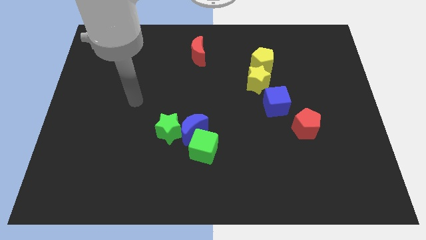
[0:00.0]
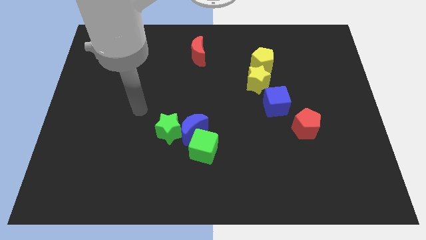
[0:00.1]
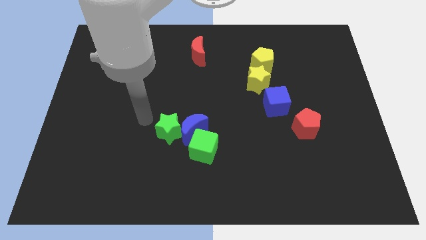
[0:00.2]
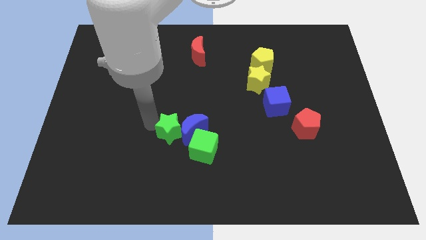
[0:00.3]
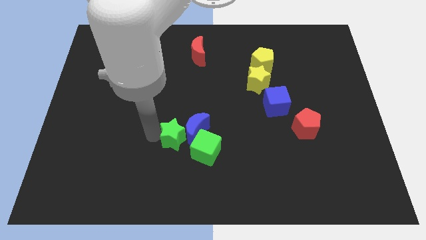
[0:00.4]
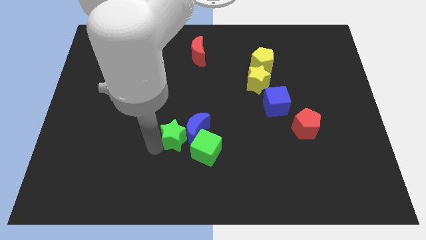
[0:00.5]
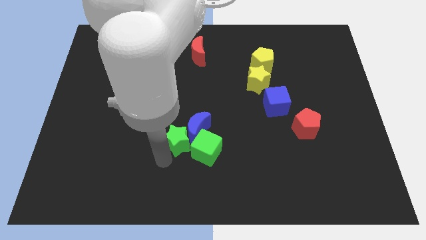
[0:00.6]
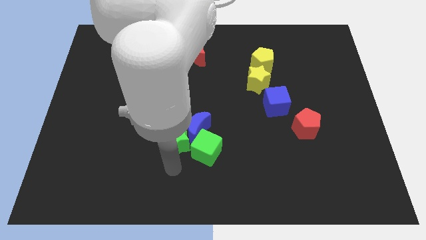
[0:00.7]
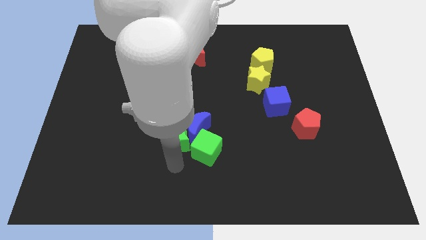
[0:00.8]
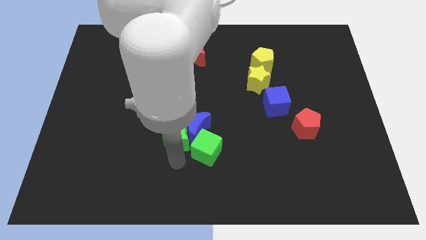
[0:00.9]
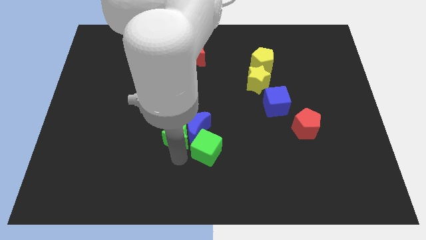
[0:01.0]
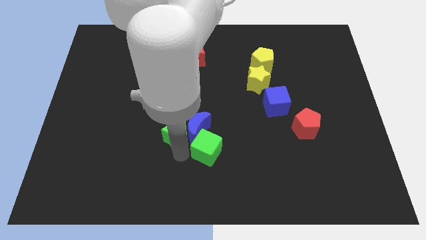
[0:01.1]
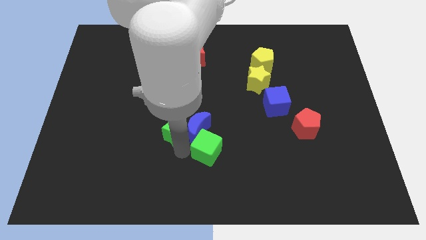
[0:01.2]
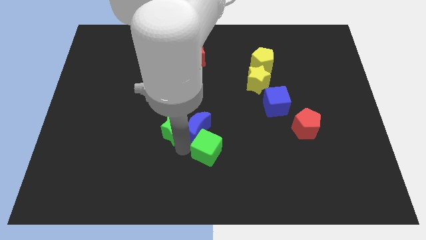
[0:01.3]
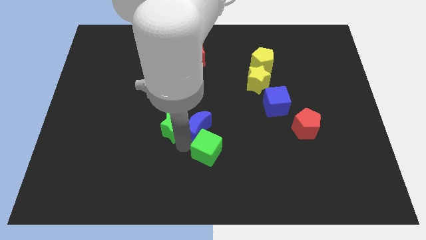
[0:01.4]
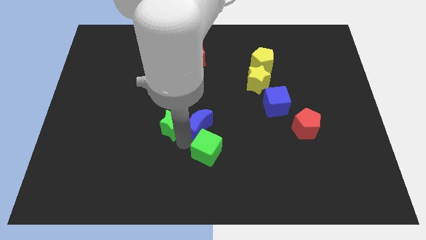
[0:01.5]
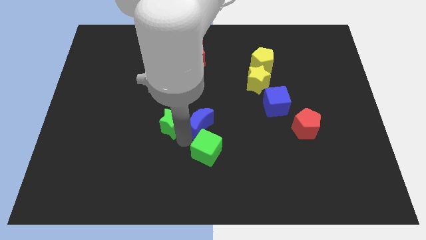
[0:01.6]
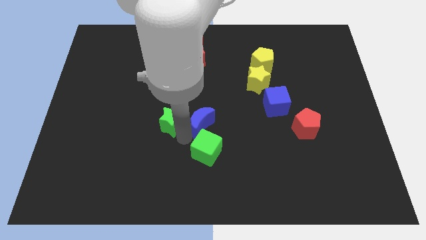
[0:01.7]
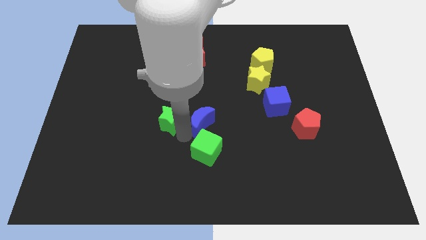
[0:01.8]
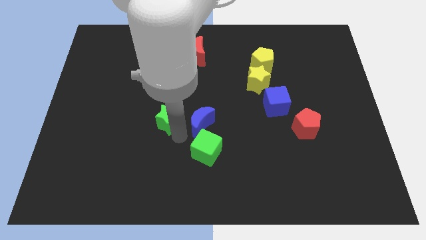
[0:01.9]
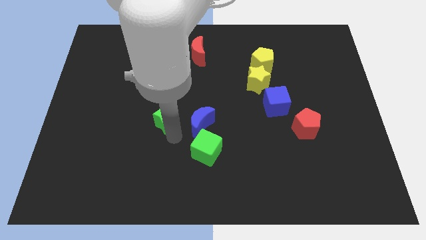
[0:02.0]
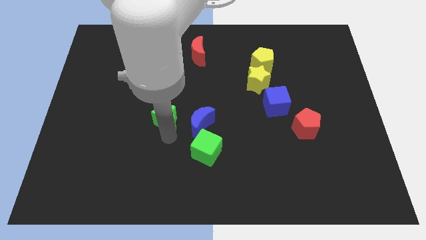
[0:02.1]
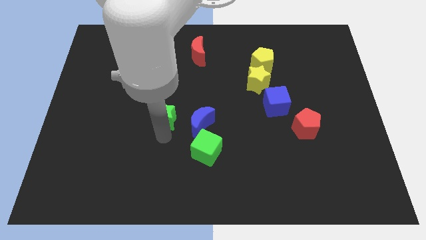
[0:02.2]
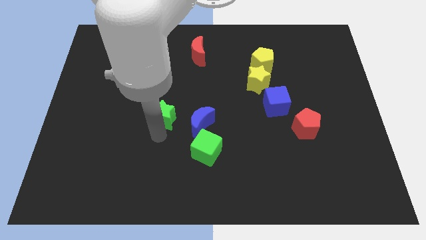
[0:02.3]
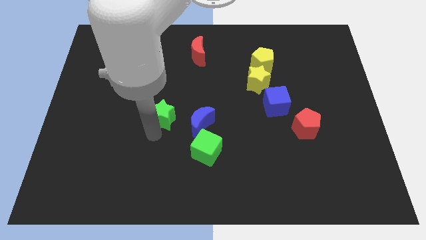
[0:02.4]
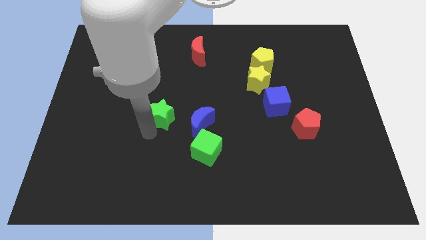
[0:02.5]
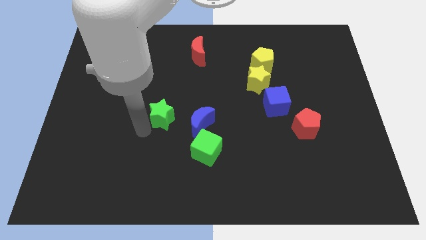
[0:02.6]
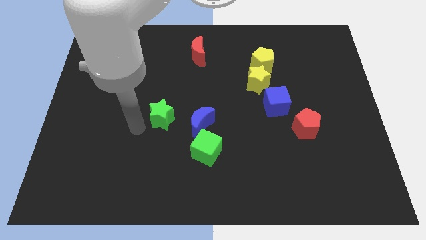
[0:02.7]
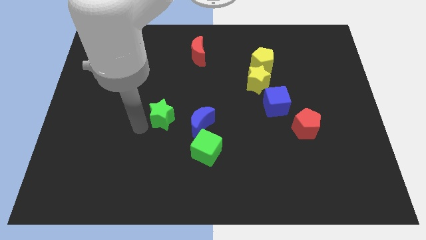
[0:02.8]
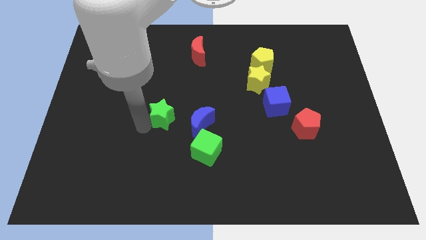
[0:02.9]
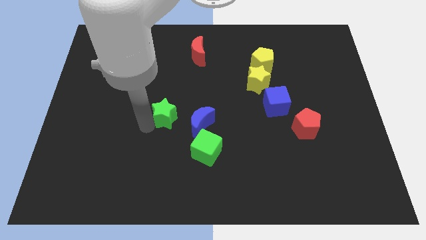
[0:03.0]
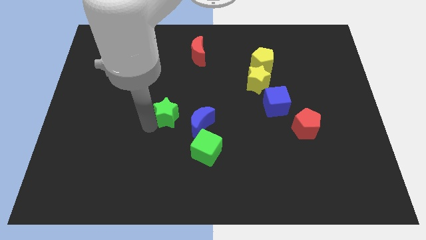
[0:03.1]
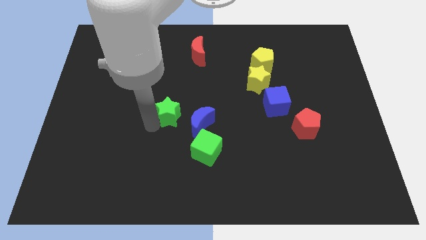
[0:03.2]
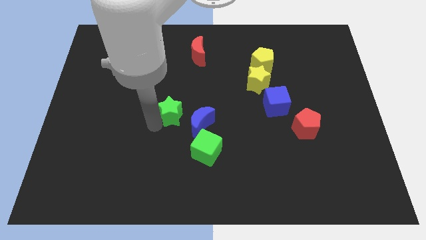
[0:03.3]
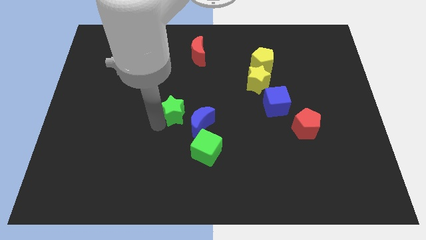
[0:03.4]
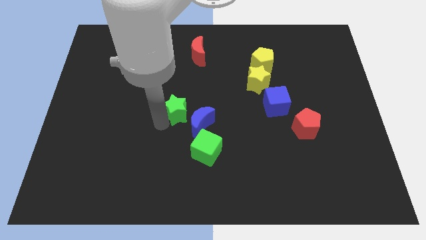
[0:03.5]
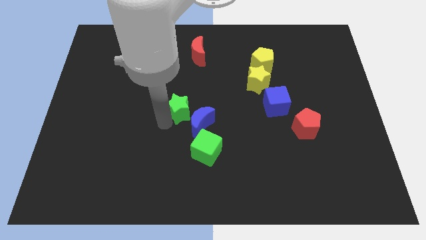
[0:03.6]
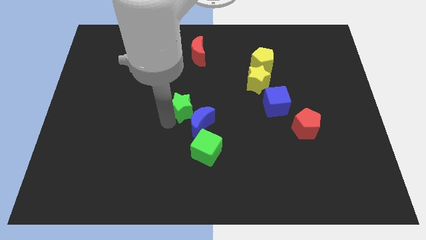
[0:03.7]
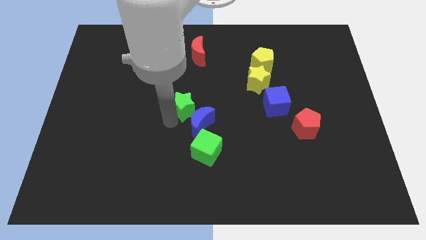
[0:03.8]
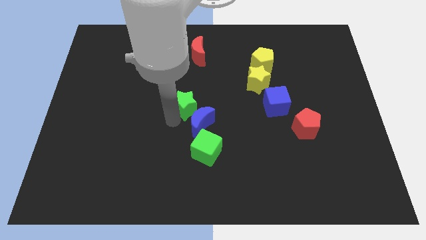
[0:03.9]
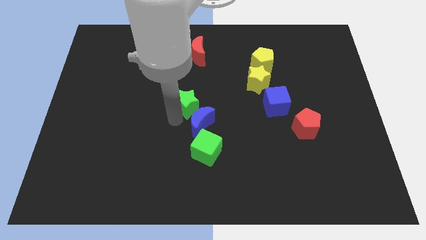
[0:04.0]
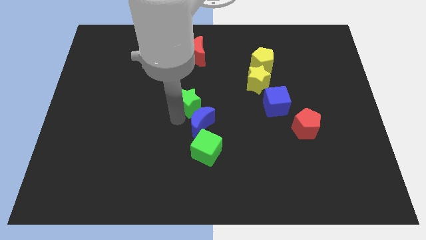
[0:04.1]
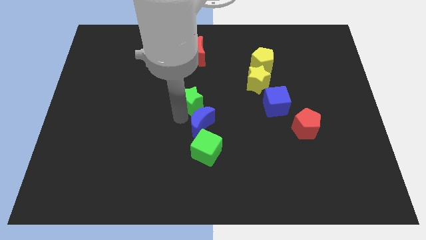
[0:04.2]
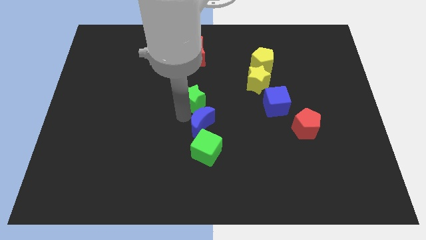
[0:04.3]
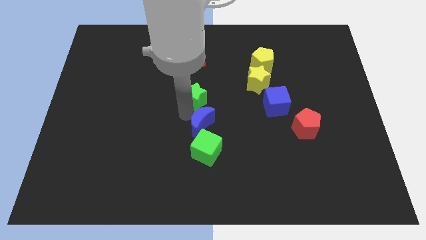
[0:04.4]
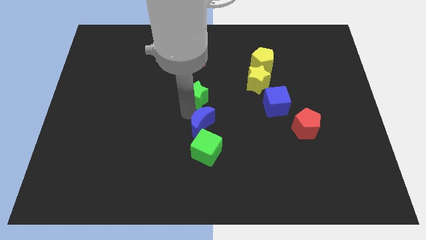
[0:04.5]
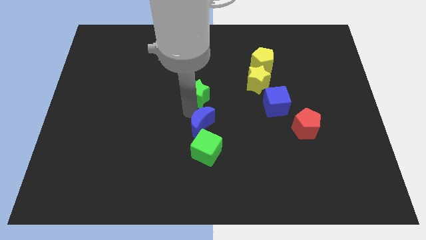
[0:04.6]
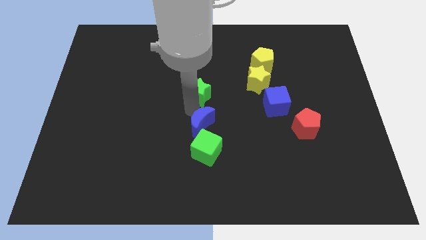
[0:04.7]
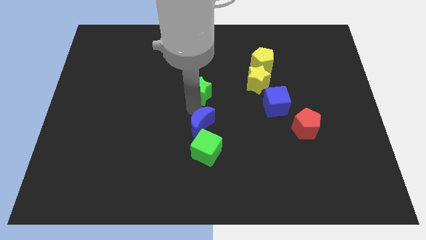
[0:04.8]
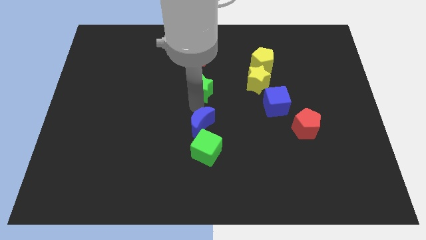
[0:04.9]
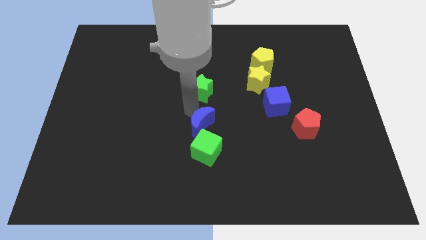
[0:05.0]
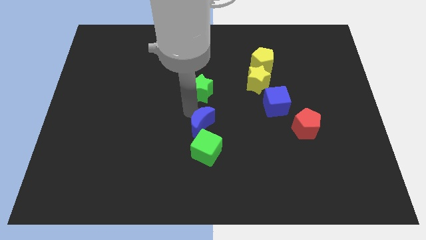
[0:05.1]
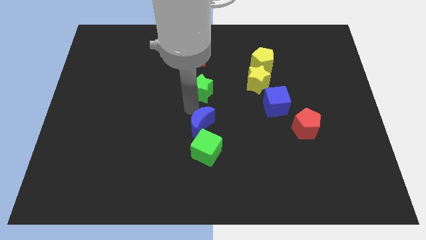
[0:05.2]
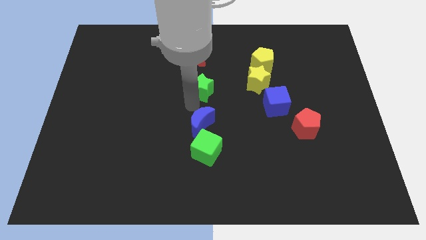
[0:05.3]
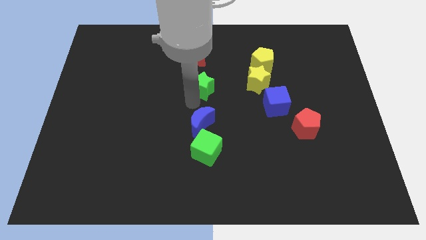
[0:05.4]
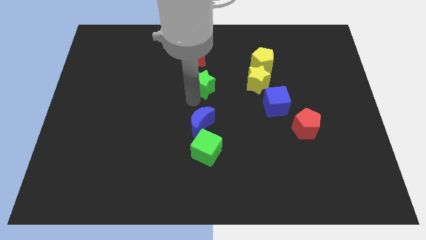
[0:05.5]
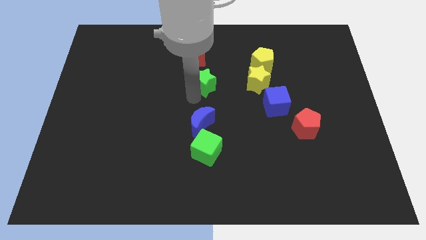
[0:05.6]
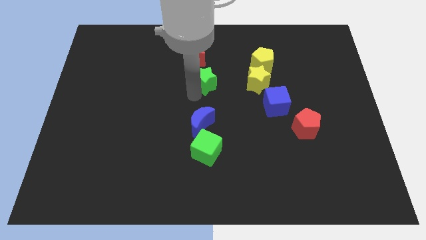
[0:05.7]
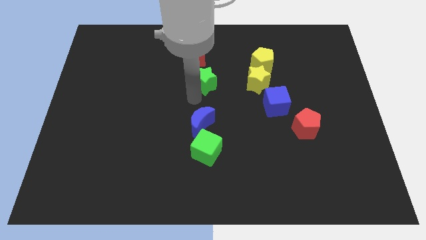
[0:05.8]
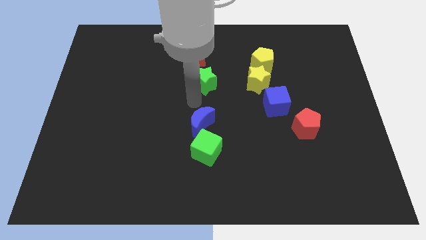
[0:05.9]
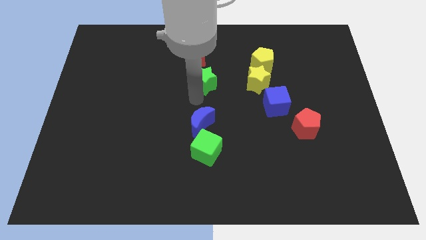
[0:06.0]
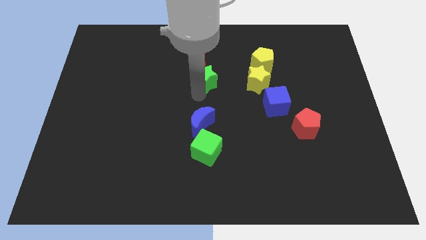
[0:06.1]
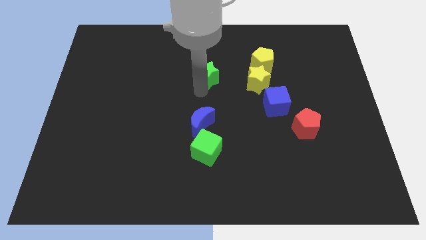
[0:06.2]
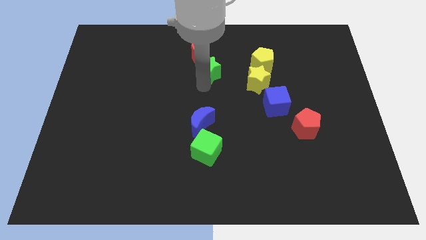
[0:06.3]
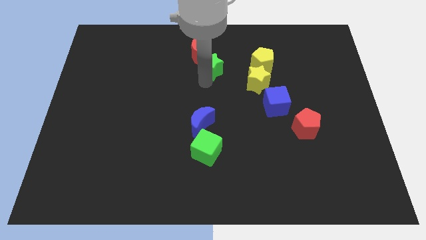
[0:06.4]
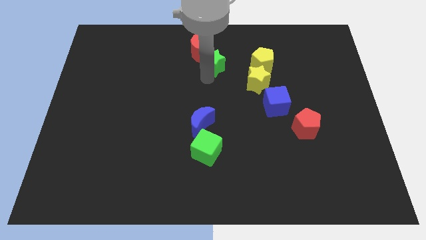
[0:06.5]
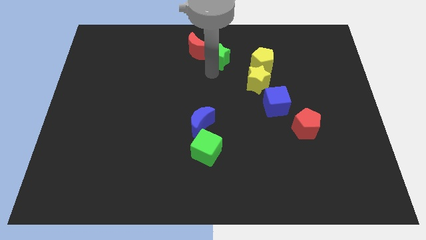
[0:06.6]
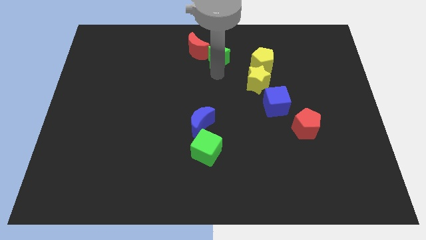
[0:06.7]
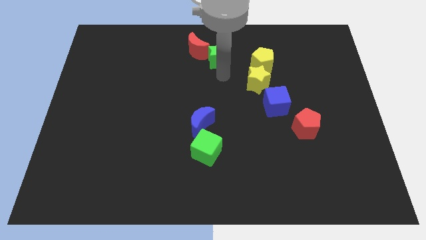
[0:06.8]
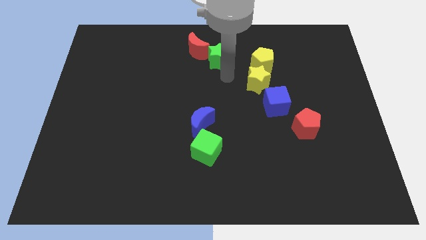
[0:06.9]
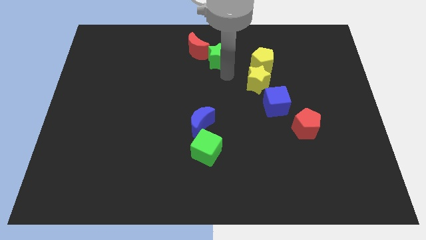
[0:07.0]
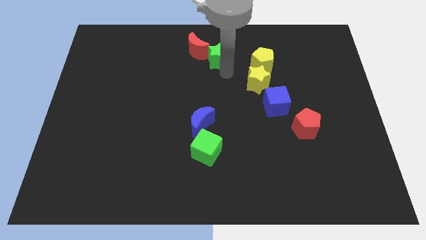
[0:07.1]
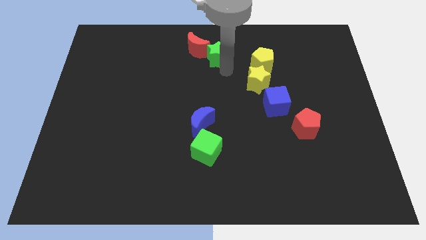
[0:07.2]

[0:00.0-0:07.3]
push the green star to the top side

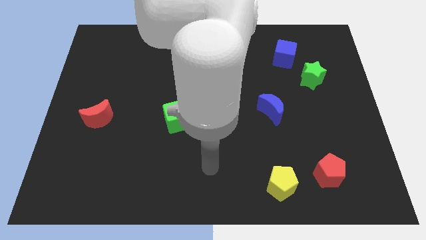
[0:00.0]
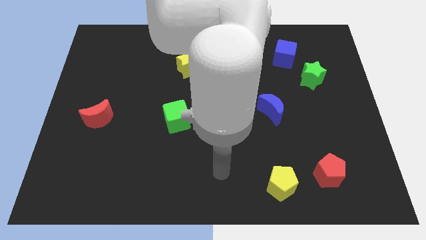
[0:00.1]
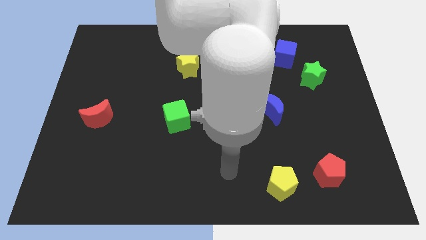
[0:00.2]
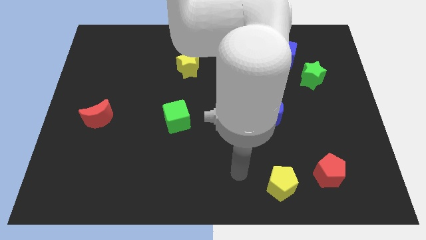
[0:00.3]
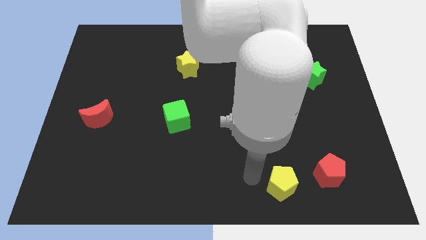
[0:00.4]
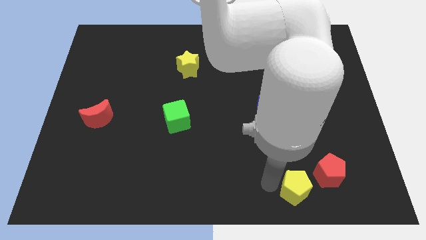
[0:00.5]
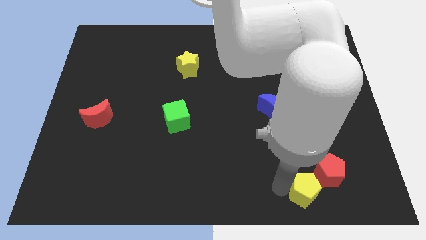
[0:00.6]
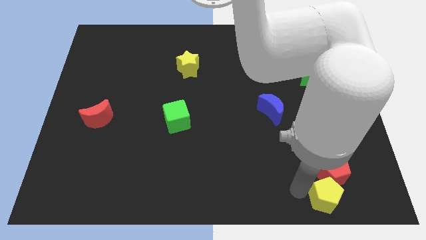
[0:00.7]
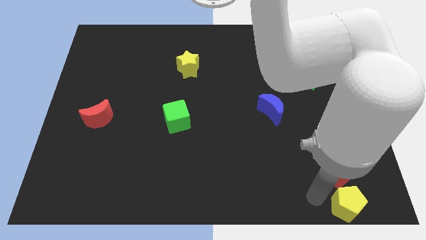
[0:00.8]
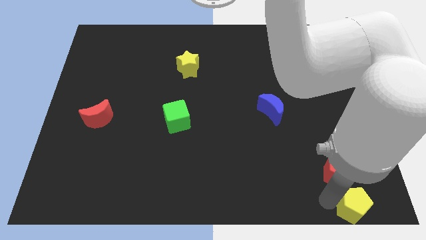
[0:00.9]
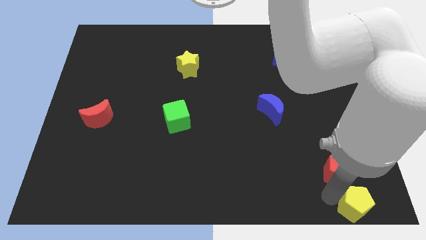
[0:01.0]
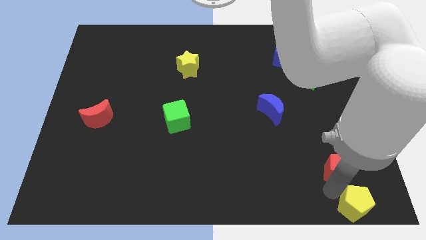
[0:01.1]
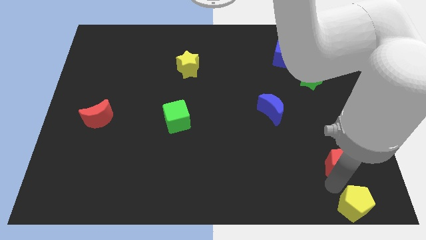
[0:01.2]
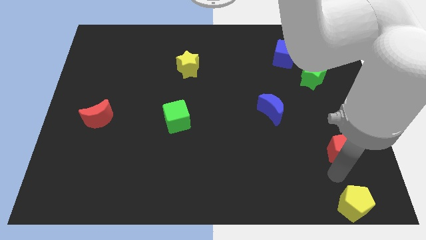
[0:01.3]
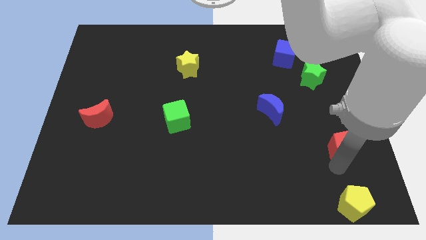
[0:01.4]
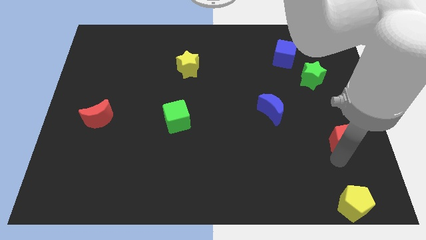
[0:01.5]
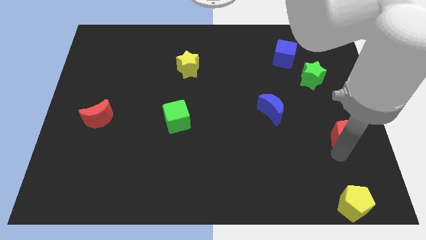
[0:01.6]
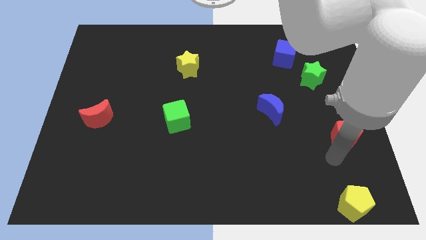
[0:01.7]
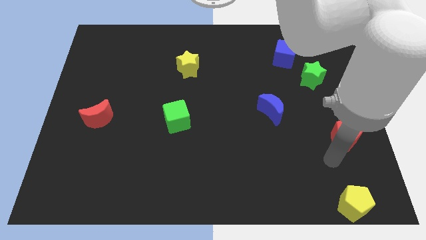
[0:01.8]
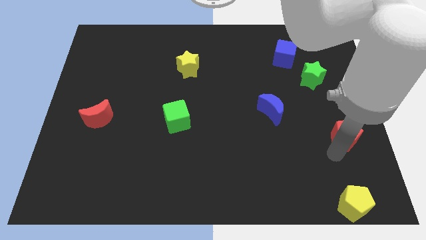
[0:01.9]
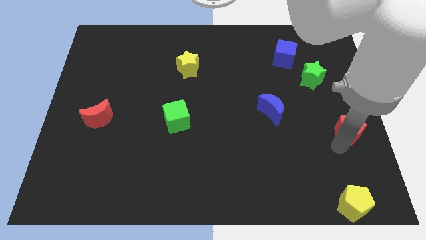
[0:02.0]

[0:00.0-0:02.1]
slide the red pentagon to the center right
